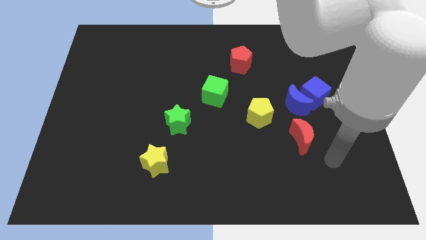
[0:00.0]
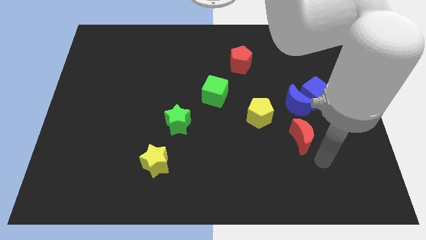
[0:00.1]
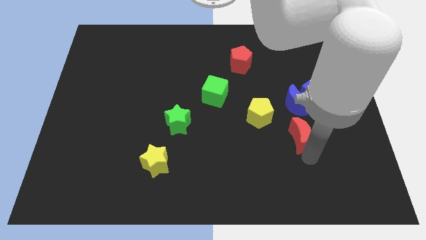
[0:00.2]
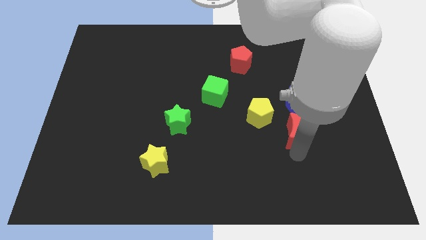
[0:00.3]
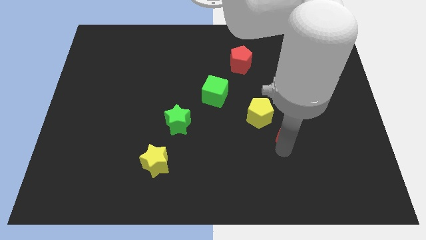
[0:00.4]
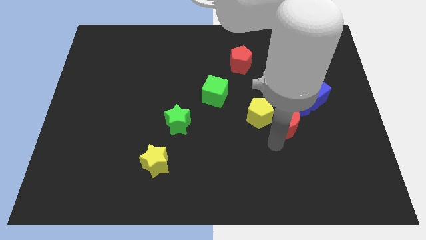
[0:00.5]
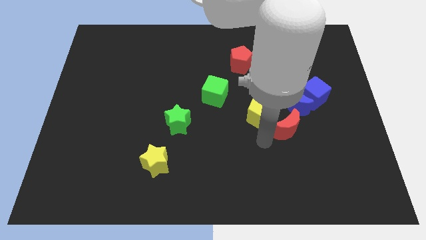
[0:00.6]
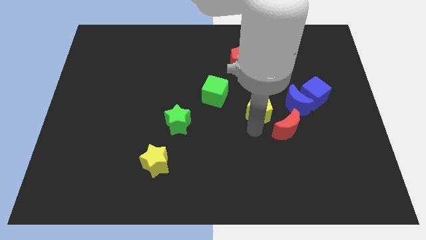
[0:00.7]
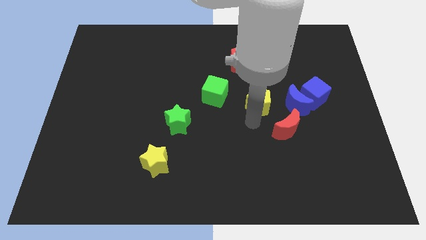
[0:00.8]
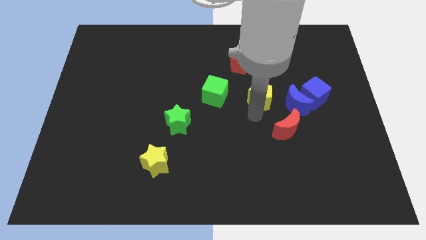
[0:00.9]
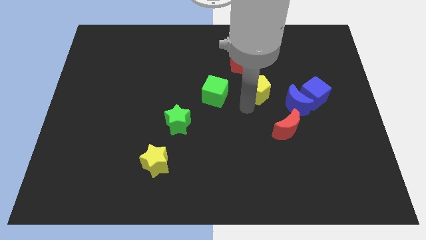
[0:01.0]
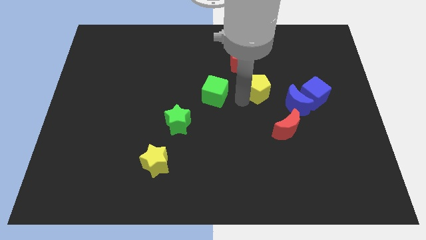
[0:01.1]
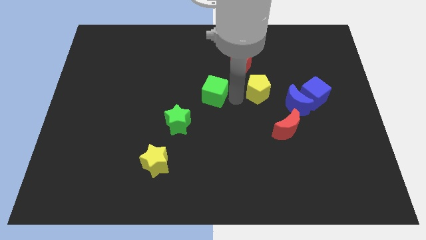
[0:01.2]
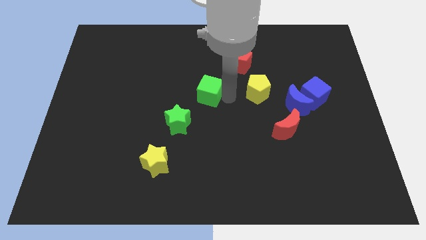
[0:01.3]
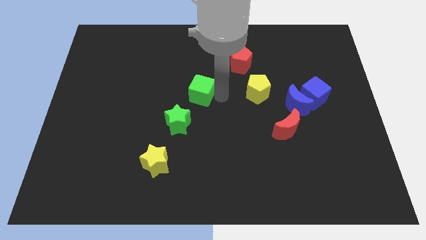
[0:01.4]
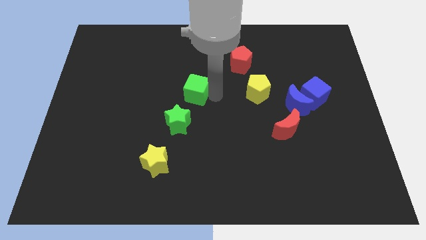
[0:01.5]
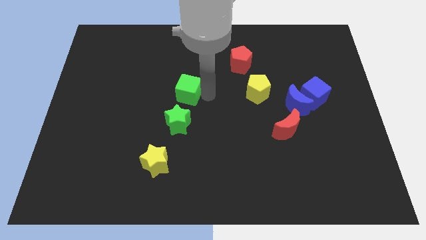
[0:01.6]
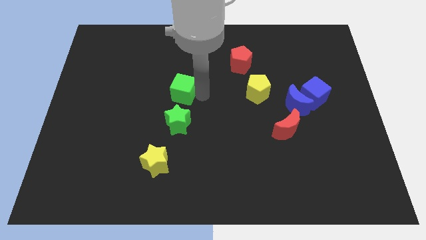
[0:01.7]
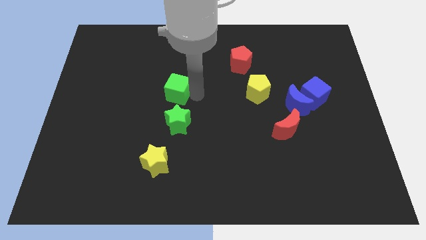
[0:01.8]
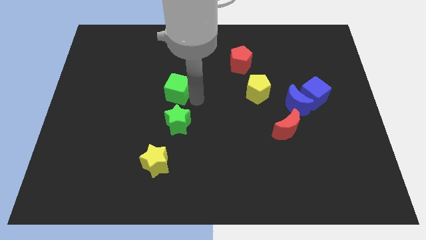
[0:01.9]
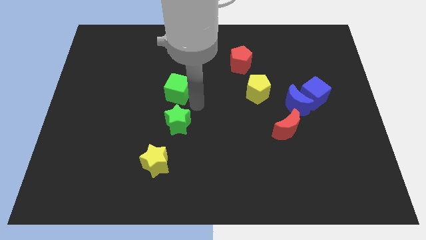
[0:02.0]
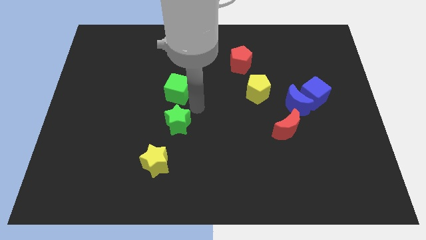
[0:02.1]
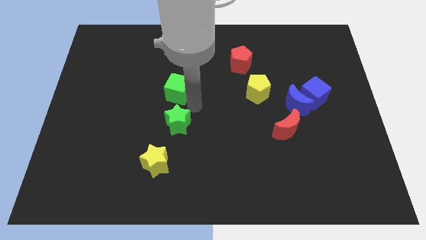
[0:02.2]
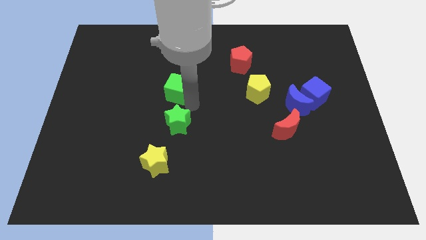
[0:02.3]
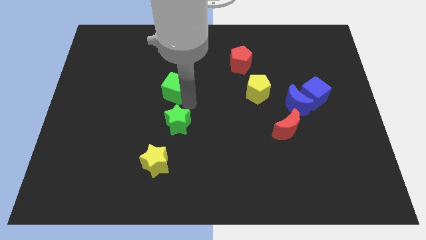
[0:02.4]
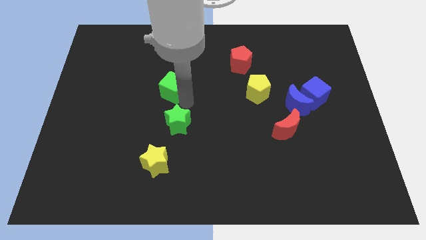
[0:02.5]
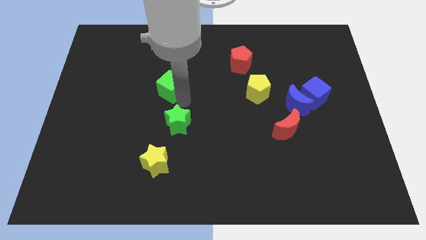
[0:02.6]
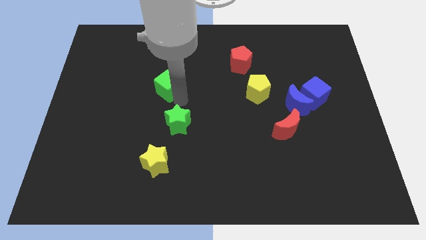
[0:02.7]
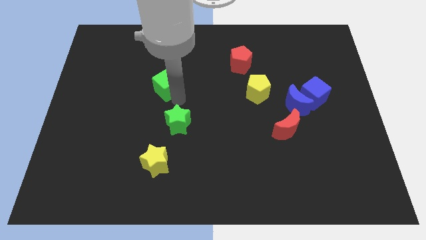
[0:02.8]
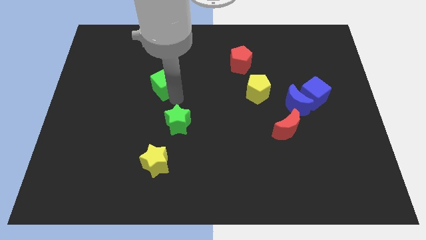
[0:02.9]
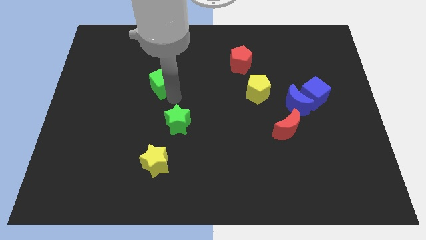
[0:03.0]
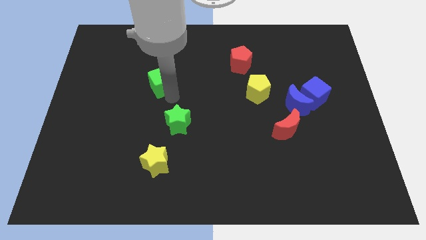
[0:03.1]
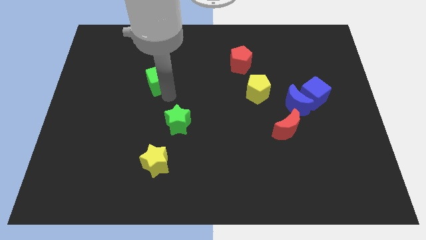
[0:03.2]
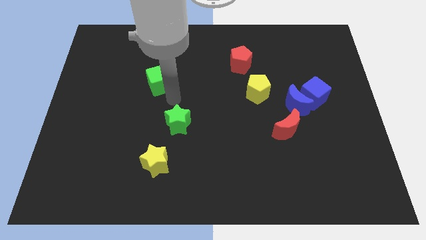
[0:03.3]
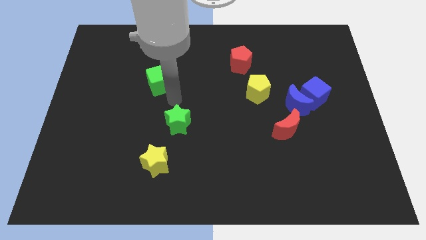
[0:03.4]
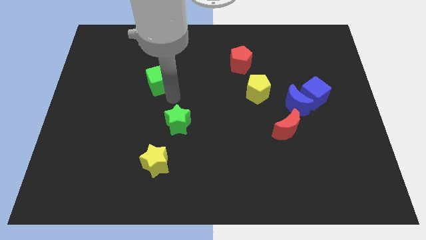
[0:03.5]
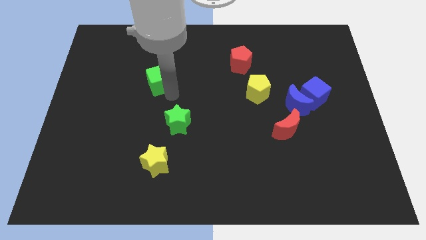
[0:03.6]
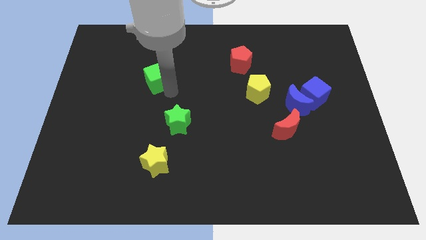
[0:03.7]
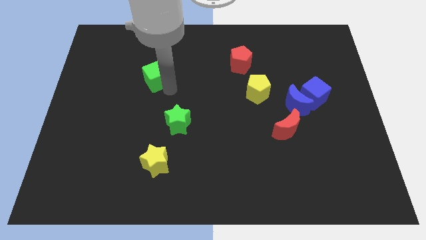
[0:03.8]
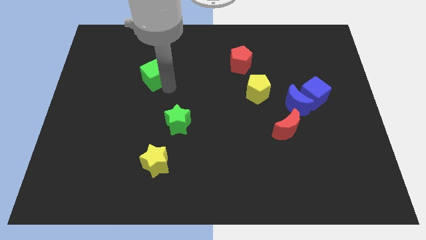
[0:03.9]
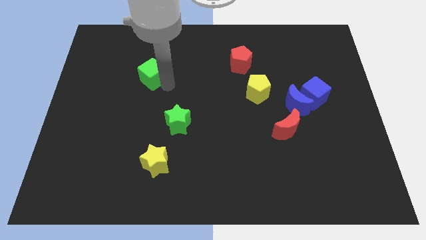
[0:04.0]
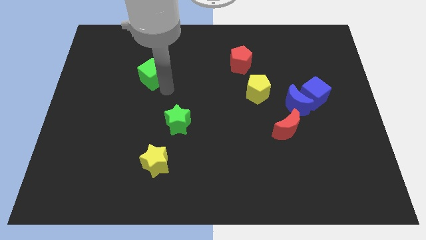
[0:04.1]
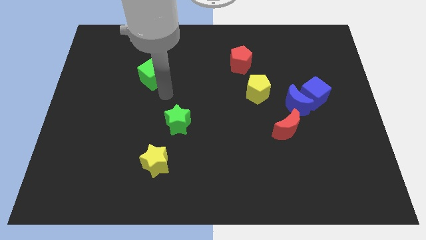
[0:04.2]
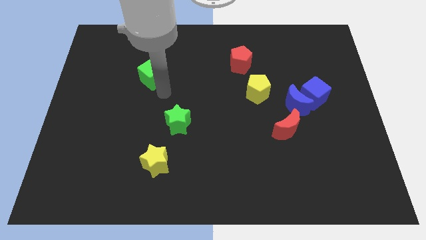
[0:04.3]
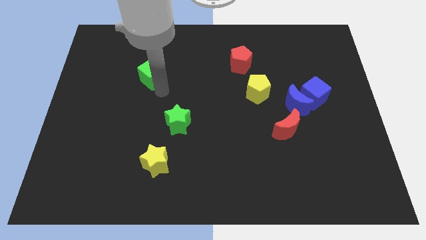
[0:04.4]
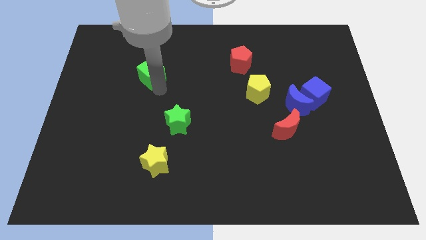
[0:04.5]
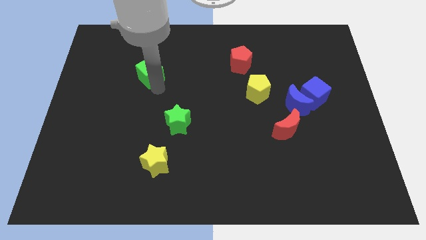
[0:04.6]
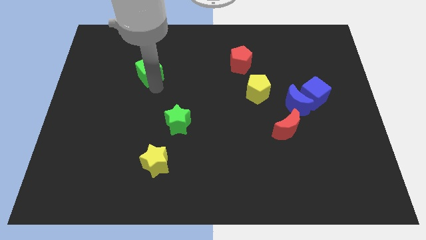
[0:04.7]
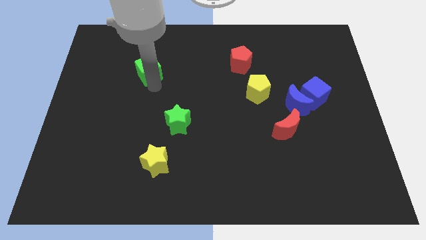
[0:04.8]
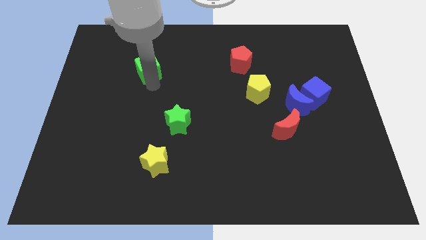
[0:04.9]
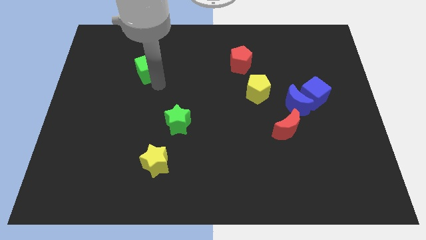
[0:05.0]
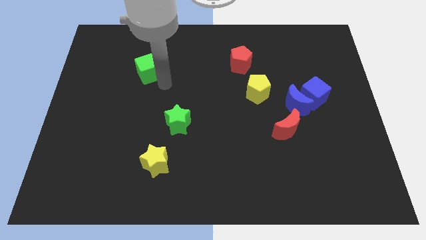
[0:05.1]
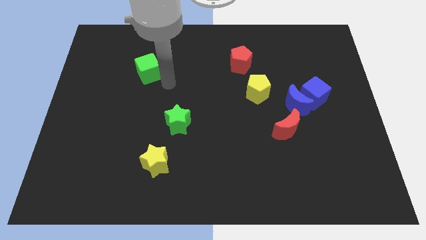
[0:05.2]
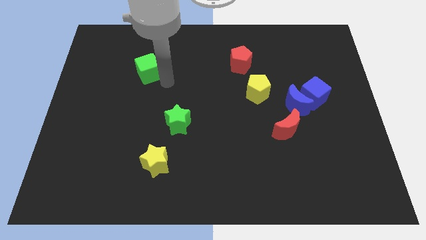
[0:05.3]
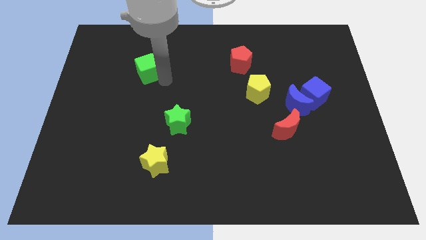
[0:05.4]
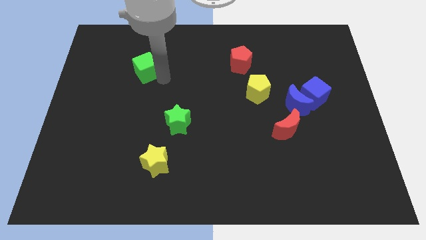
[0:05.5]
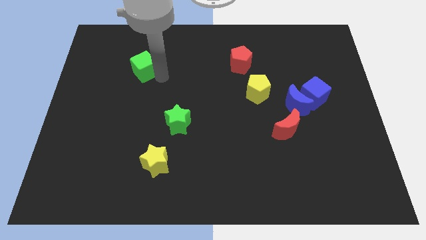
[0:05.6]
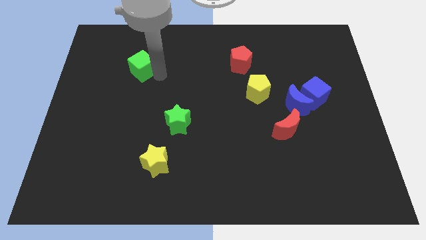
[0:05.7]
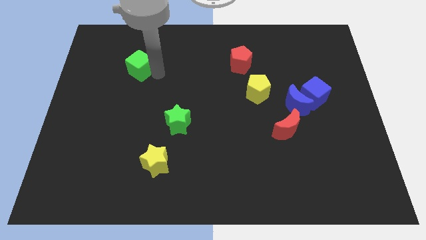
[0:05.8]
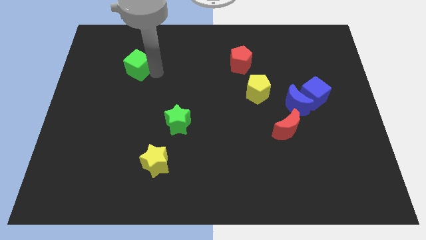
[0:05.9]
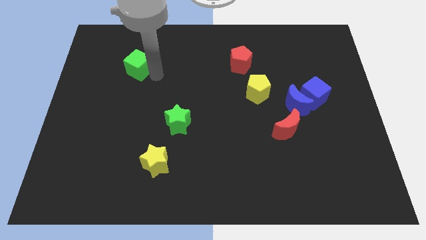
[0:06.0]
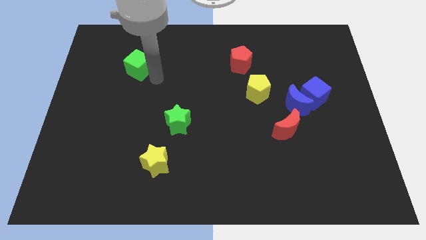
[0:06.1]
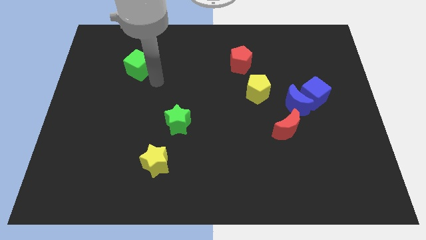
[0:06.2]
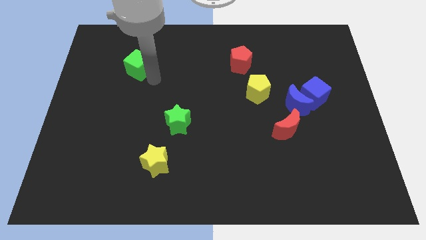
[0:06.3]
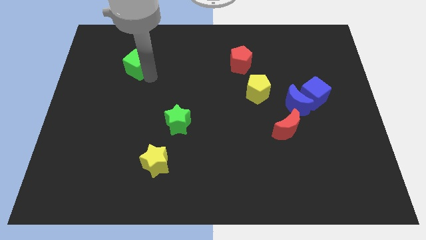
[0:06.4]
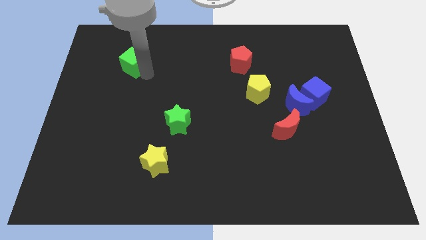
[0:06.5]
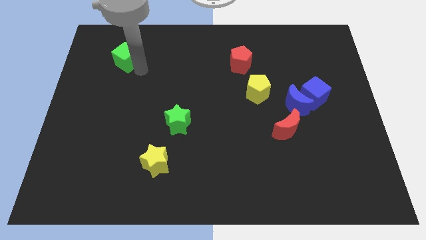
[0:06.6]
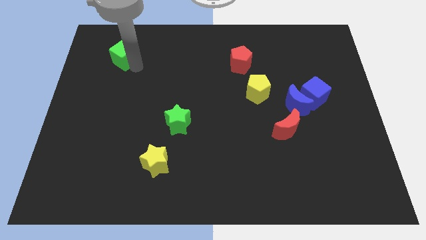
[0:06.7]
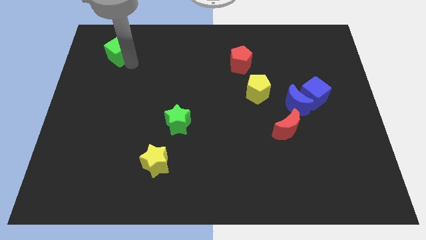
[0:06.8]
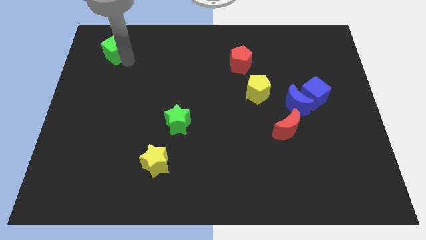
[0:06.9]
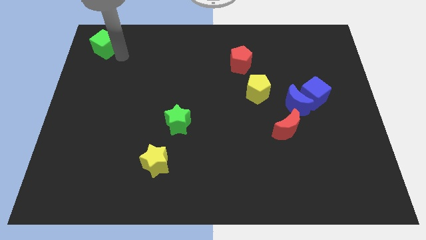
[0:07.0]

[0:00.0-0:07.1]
push the green cube to the upper left corner
